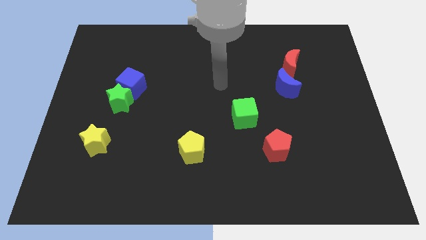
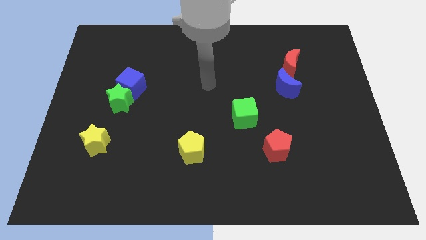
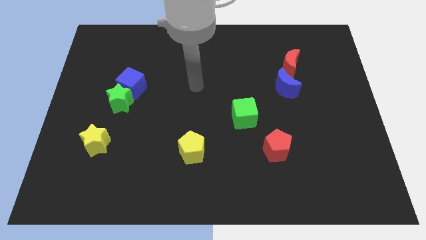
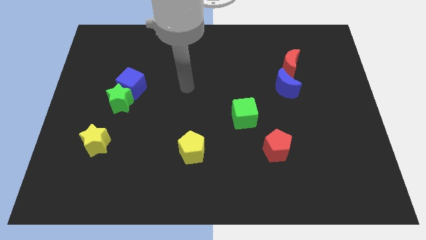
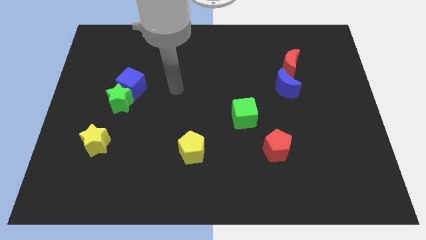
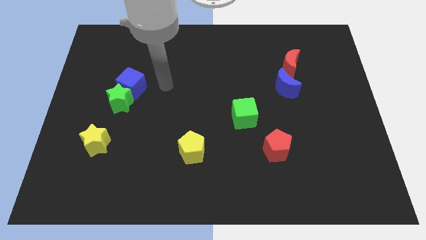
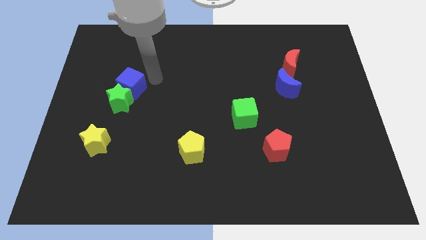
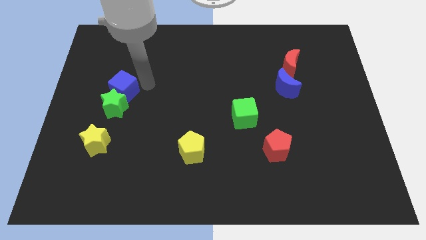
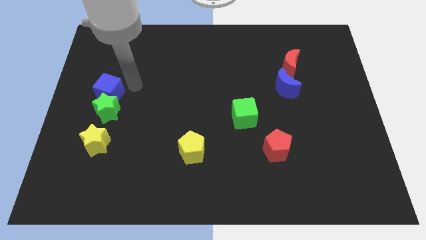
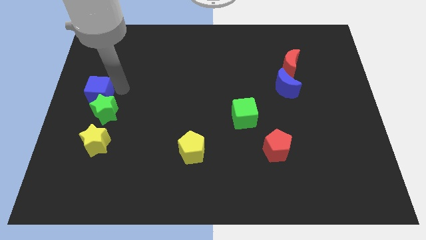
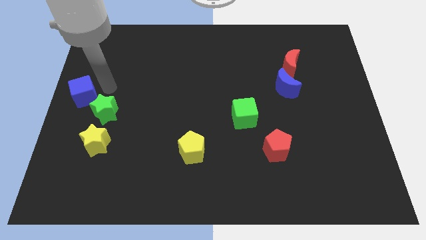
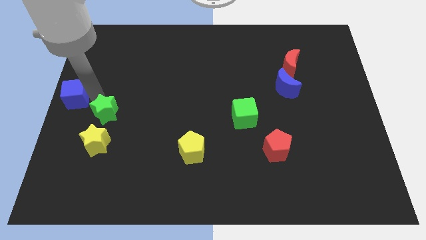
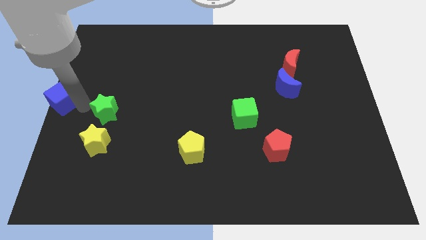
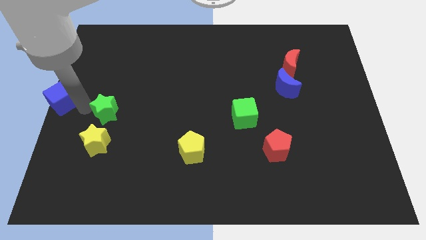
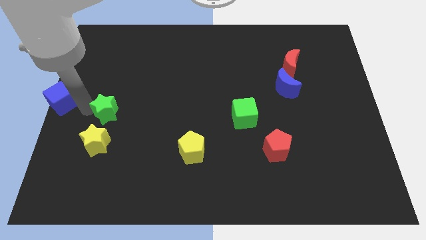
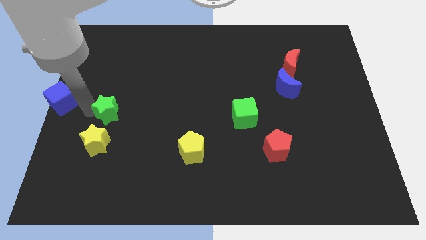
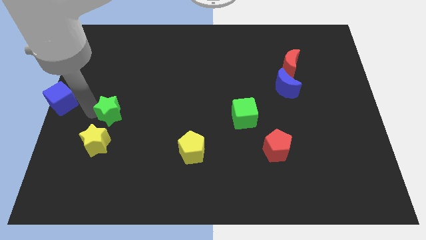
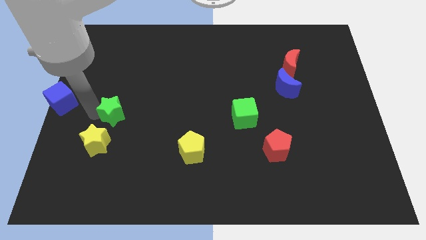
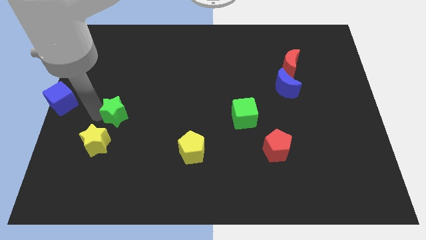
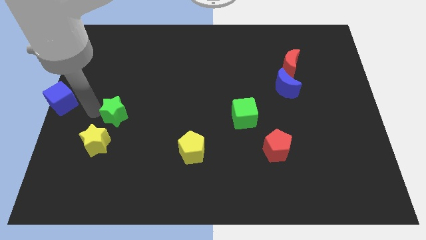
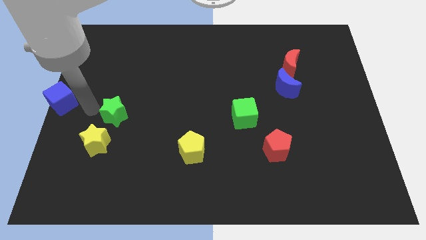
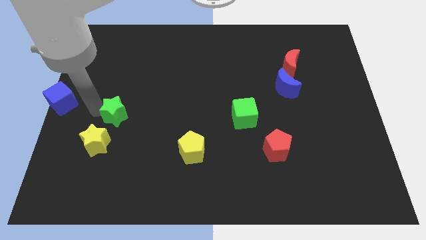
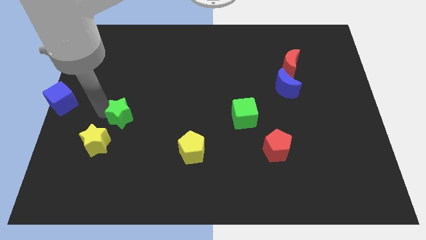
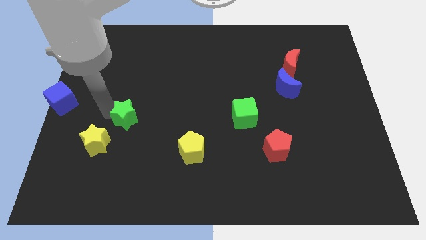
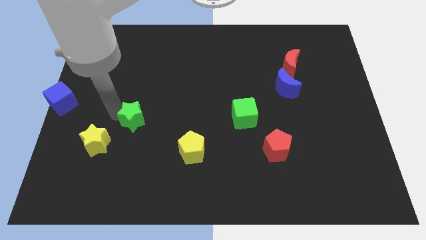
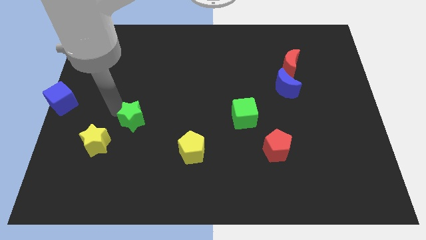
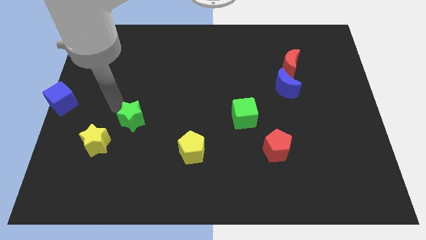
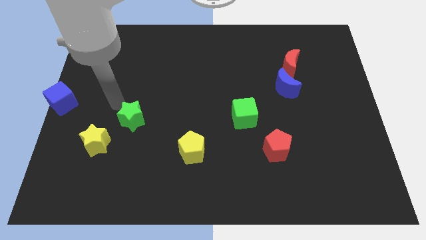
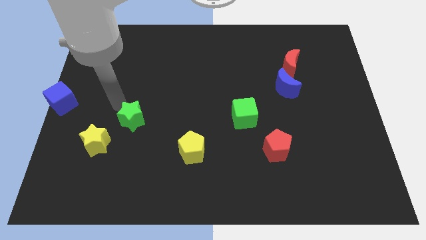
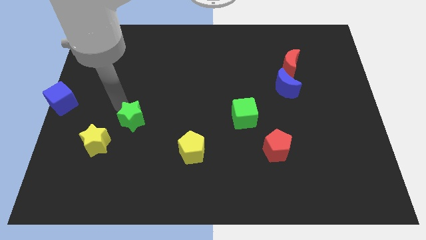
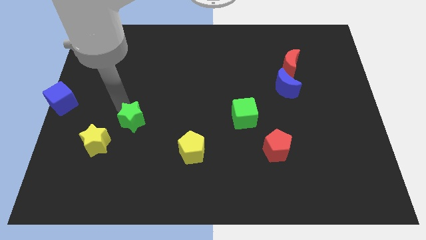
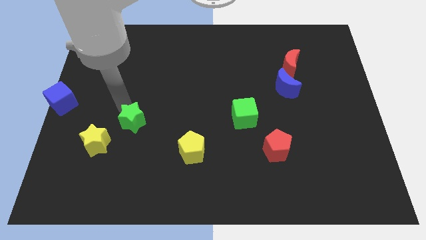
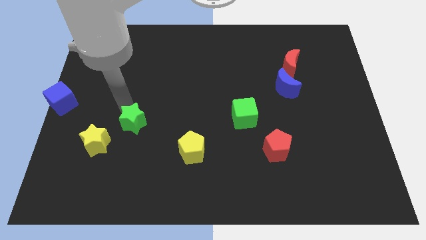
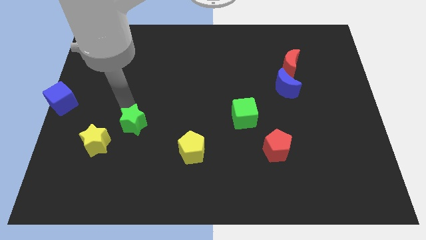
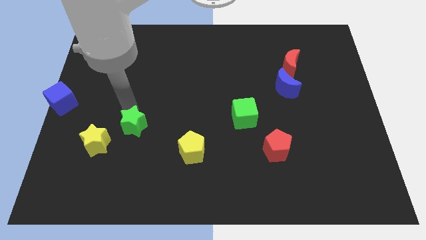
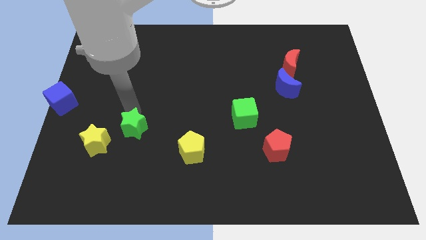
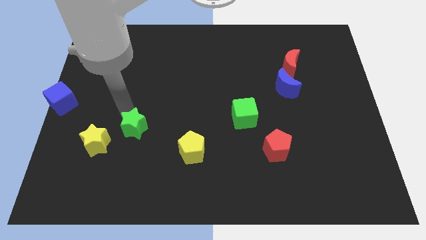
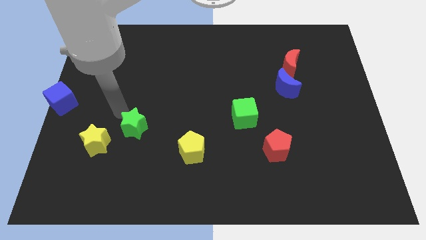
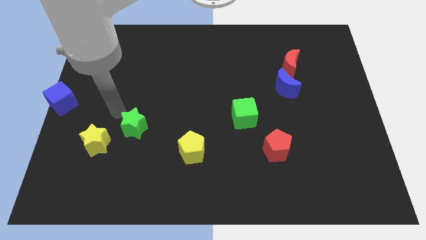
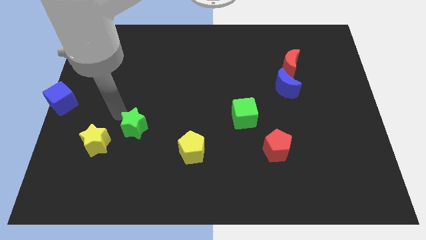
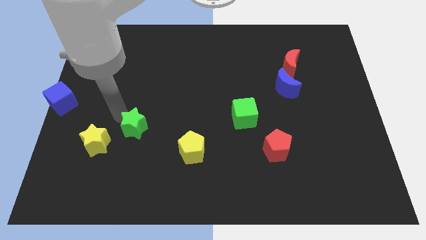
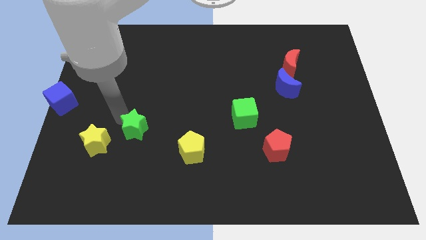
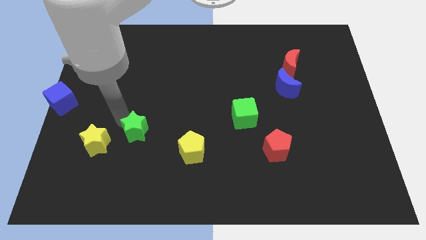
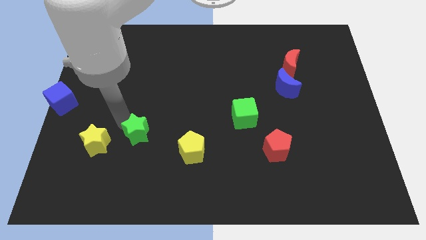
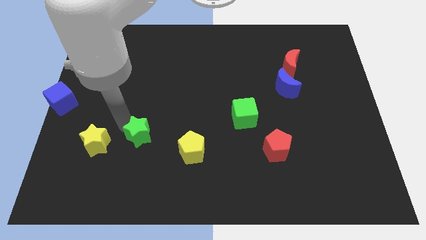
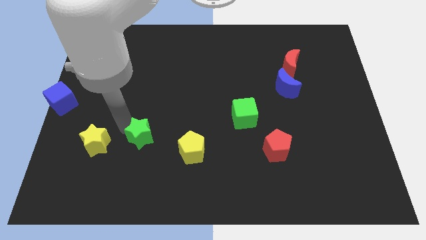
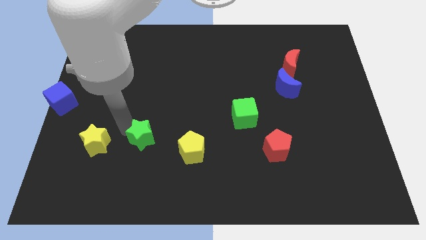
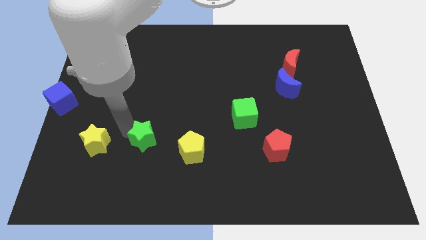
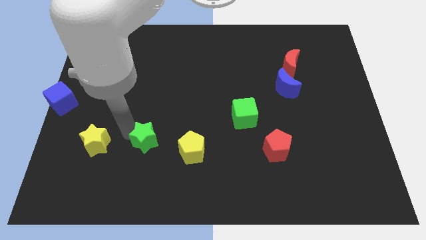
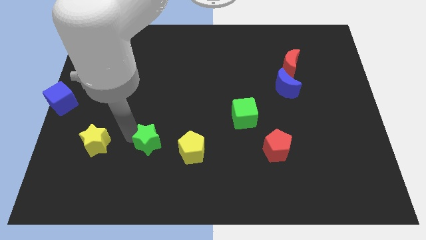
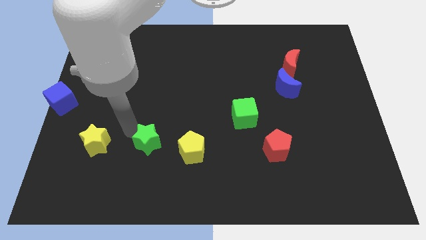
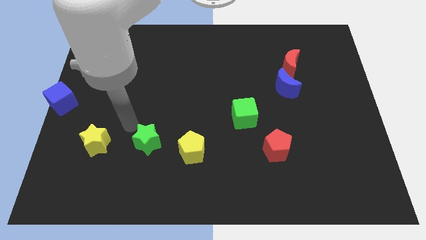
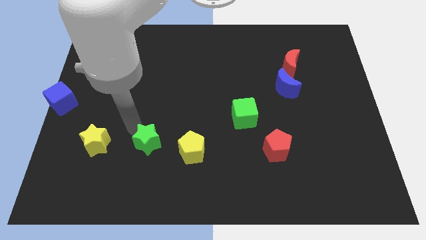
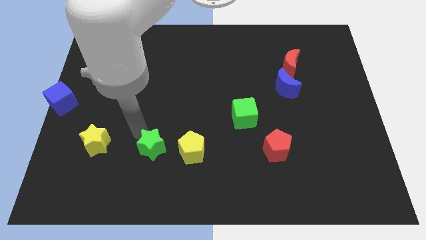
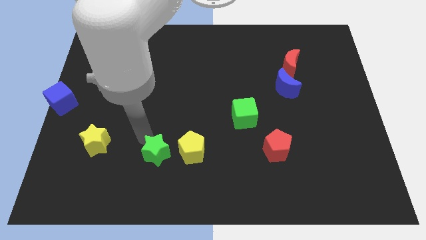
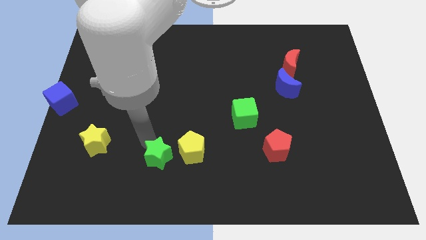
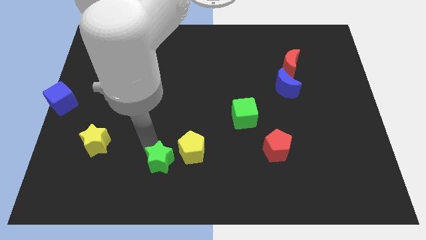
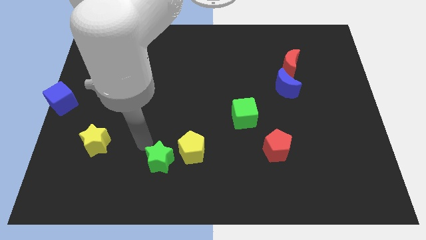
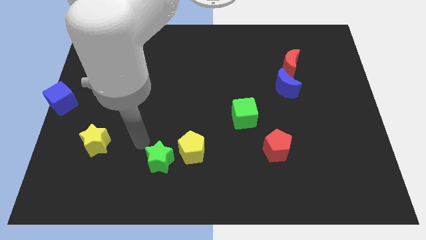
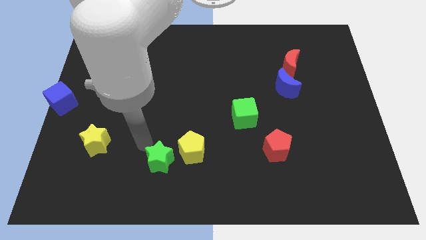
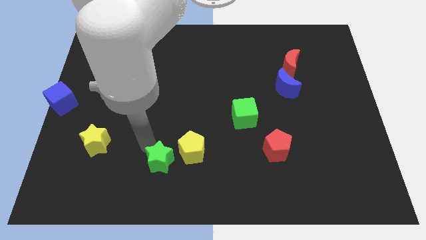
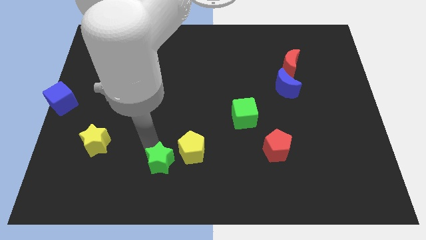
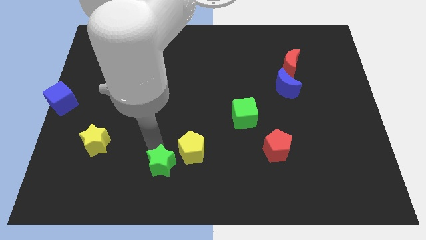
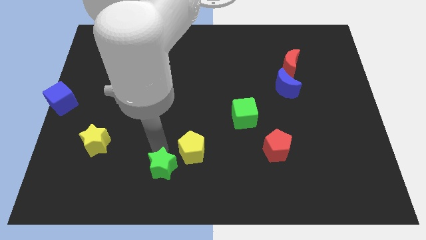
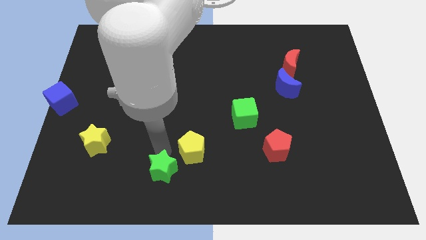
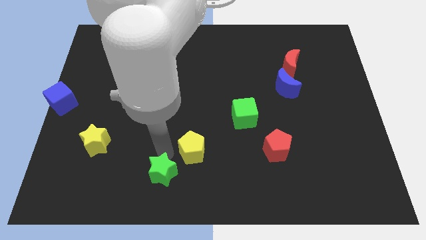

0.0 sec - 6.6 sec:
move the green star to the bottom side
